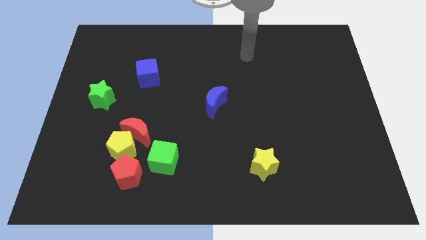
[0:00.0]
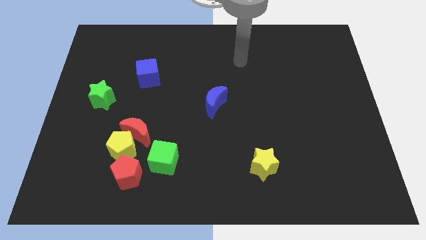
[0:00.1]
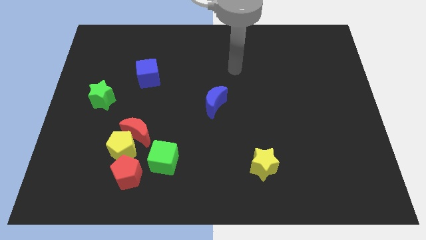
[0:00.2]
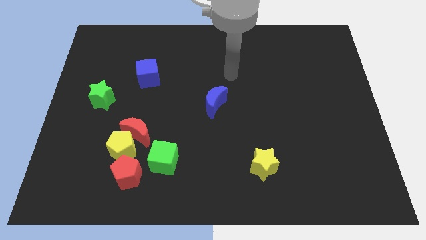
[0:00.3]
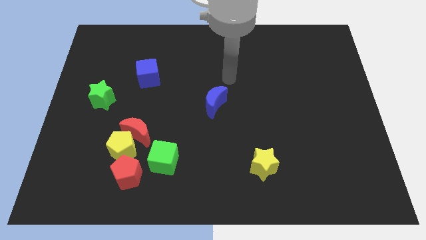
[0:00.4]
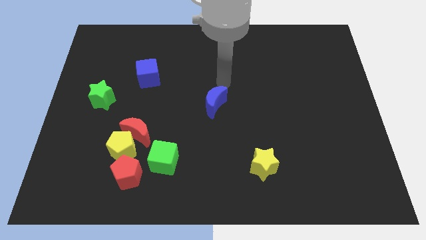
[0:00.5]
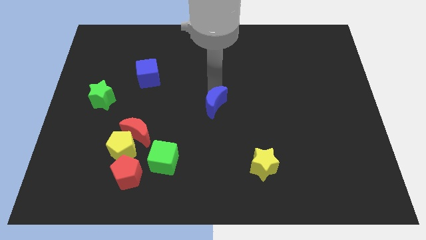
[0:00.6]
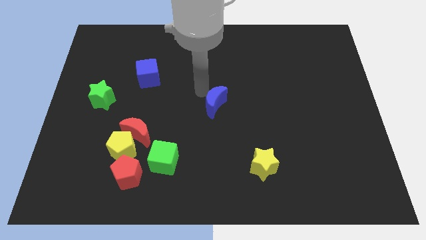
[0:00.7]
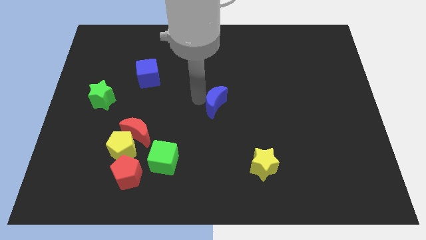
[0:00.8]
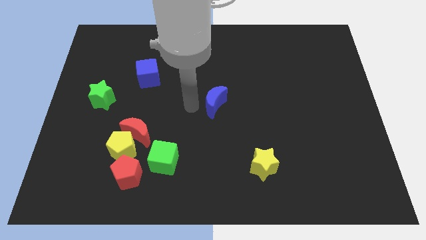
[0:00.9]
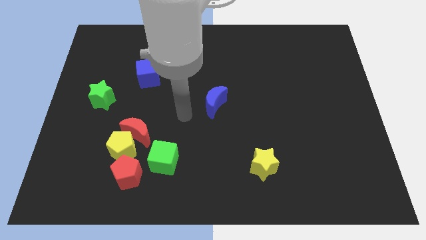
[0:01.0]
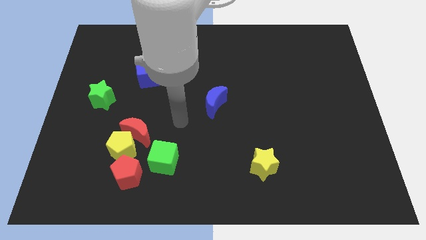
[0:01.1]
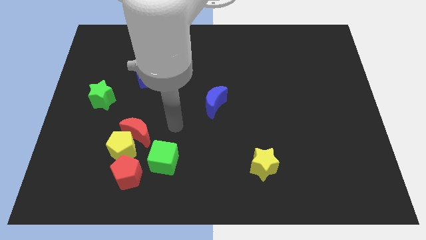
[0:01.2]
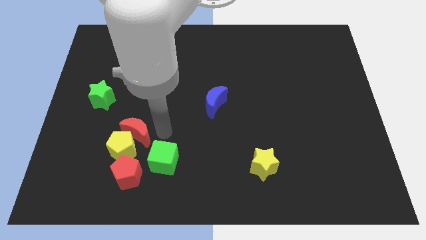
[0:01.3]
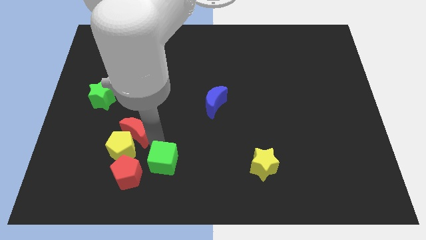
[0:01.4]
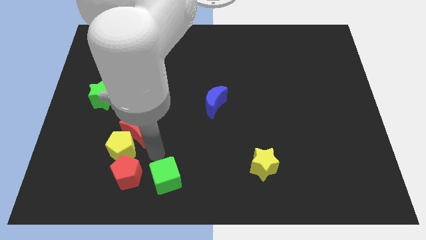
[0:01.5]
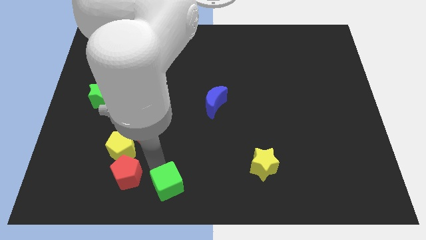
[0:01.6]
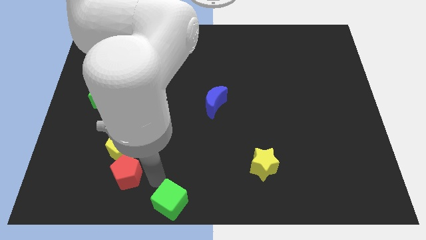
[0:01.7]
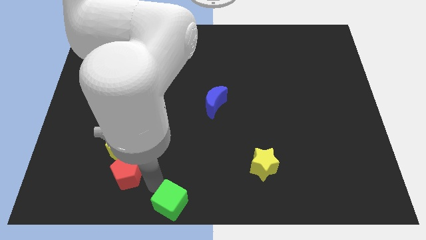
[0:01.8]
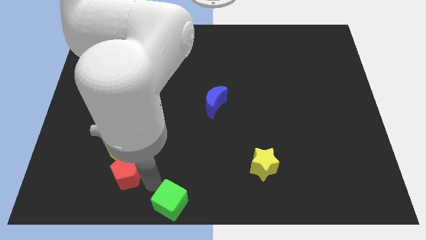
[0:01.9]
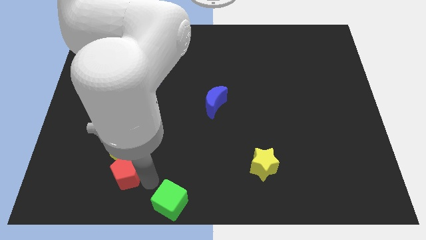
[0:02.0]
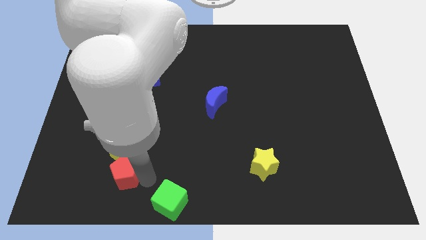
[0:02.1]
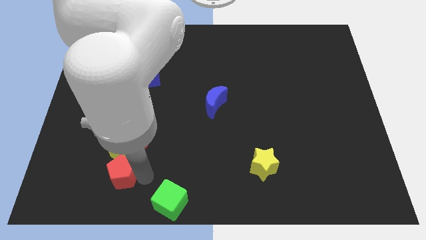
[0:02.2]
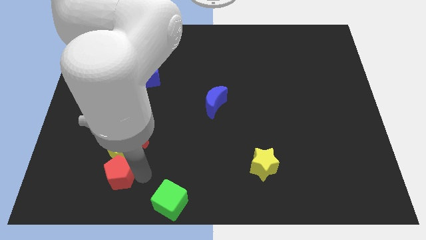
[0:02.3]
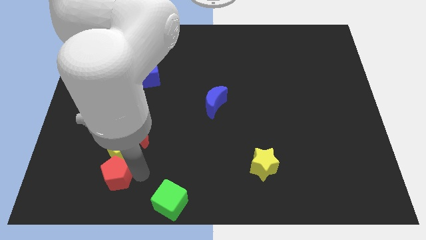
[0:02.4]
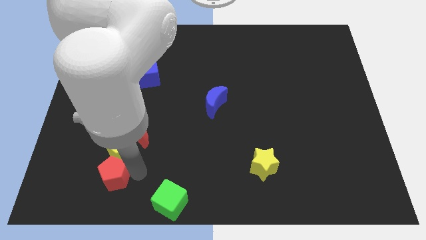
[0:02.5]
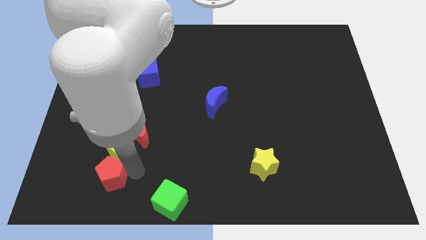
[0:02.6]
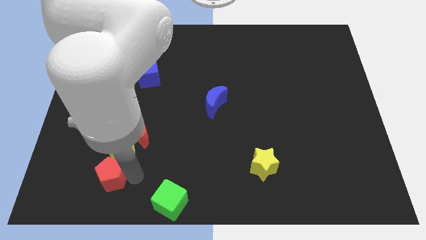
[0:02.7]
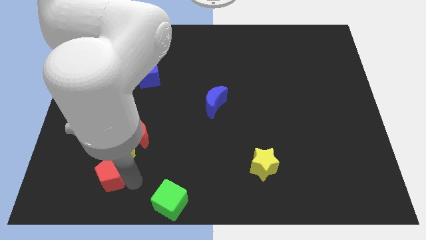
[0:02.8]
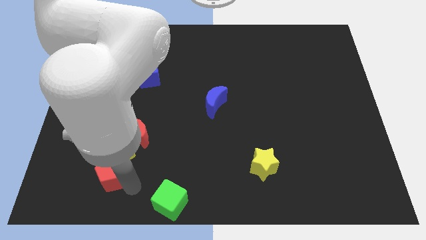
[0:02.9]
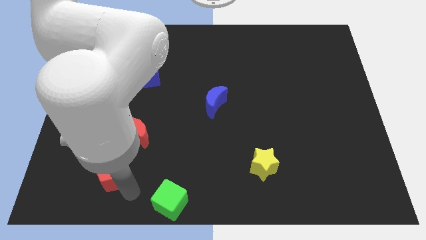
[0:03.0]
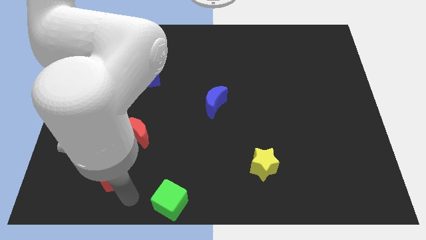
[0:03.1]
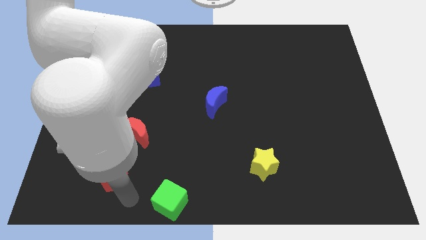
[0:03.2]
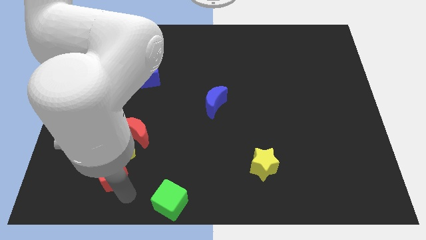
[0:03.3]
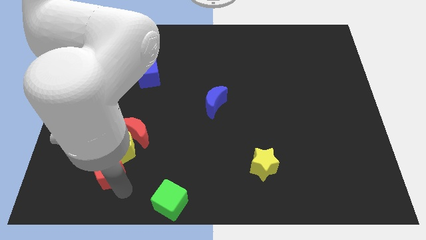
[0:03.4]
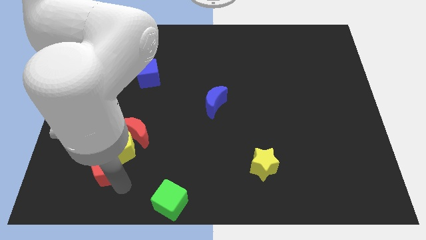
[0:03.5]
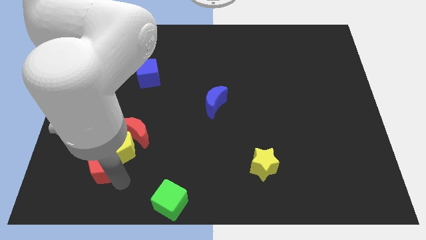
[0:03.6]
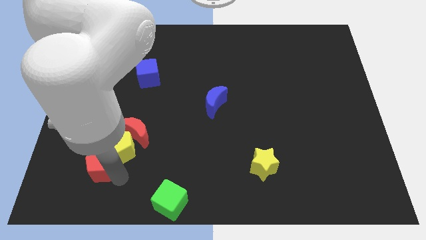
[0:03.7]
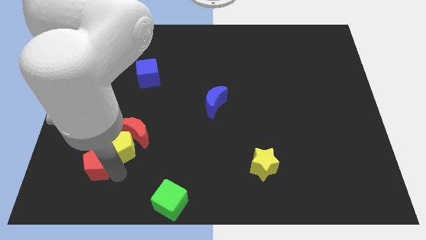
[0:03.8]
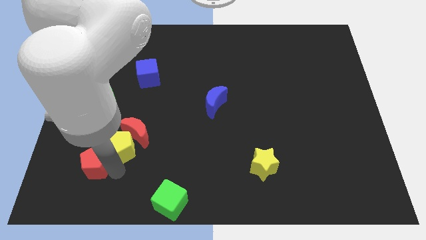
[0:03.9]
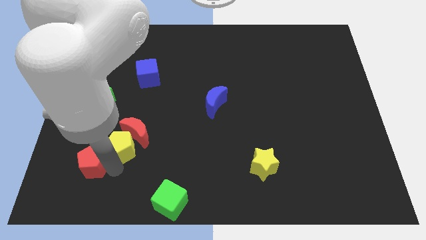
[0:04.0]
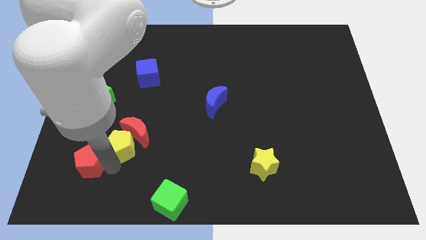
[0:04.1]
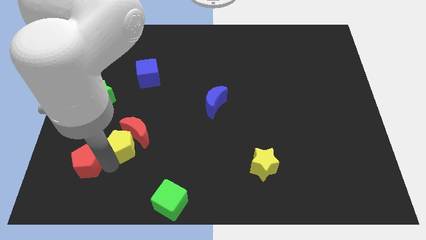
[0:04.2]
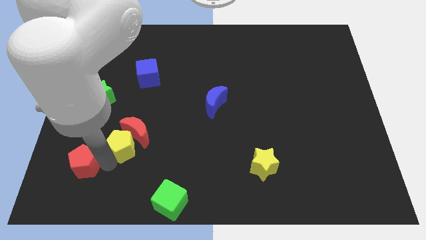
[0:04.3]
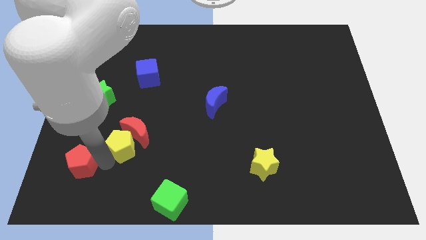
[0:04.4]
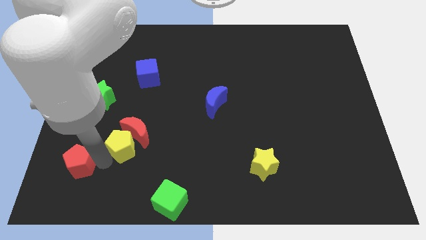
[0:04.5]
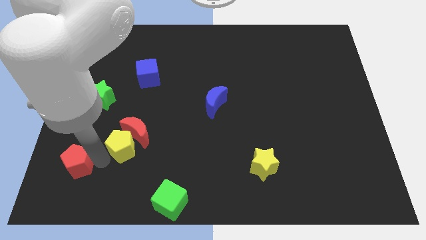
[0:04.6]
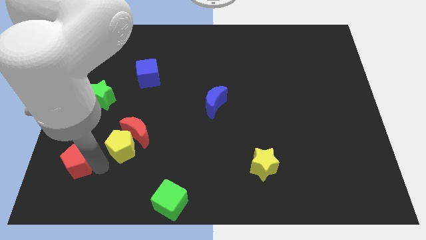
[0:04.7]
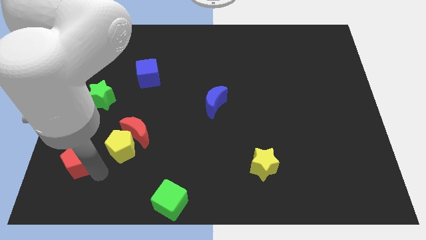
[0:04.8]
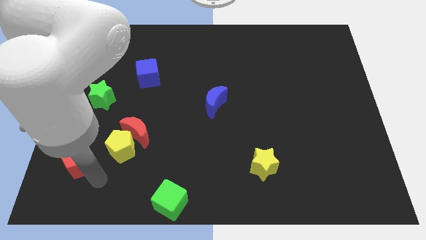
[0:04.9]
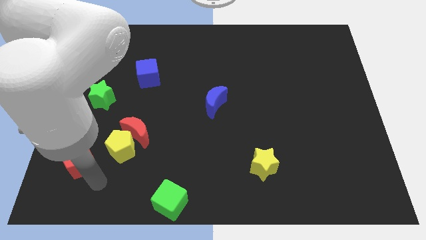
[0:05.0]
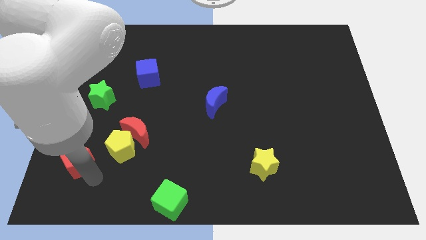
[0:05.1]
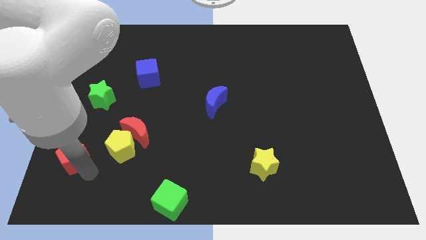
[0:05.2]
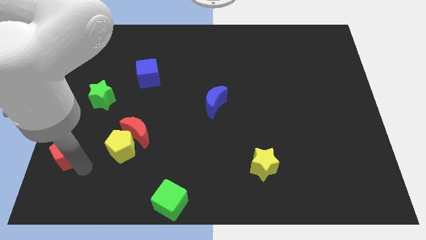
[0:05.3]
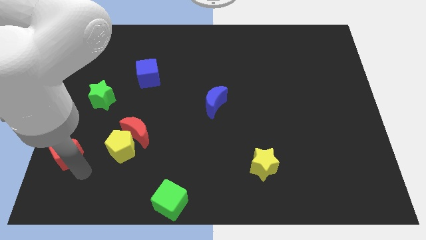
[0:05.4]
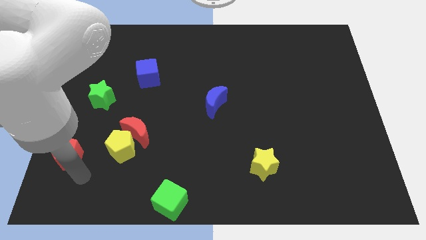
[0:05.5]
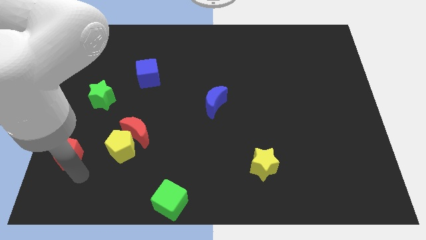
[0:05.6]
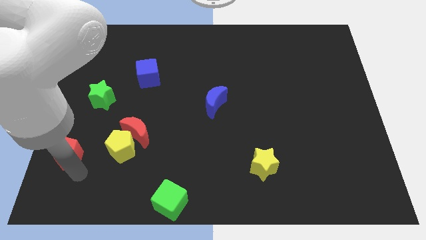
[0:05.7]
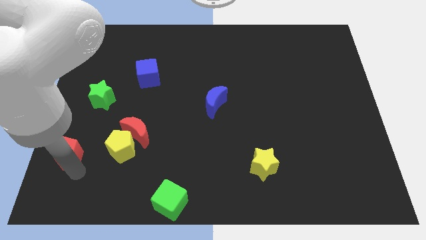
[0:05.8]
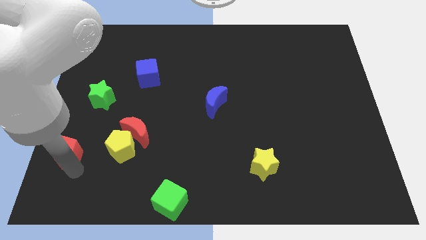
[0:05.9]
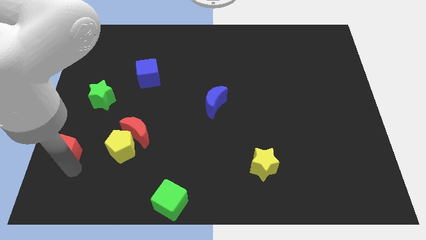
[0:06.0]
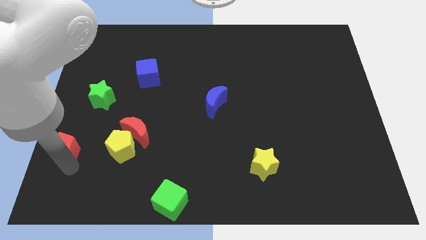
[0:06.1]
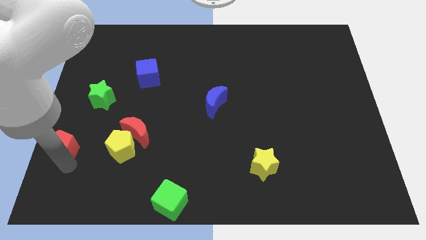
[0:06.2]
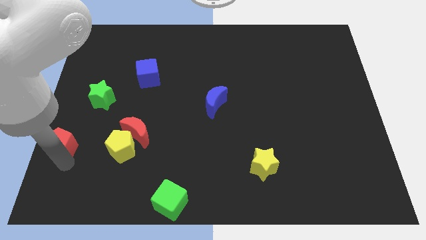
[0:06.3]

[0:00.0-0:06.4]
slide the red pentagon to the left side of the board

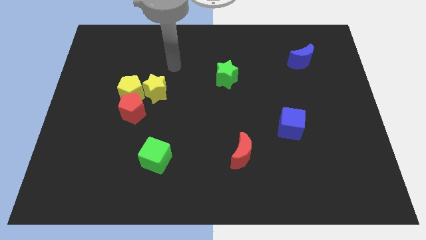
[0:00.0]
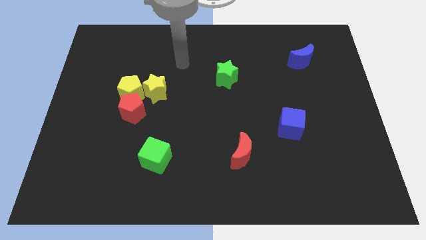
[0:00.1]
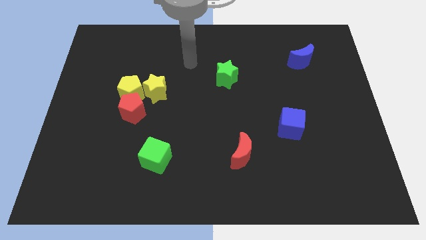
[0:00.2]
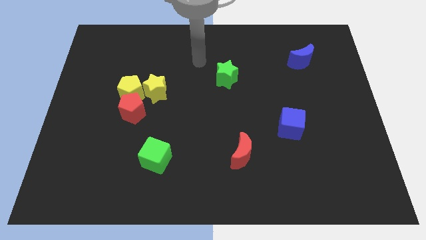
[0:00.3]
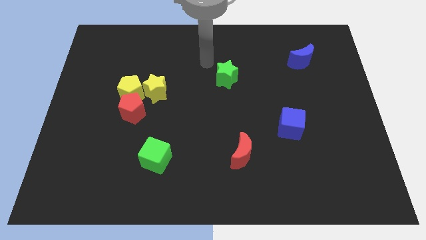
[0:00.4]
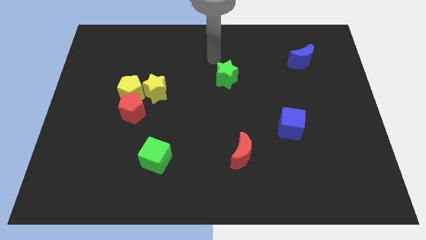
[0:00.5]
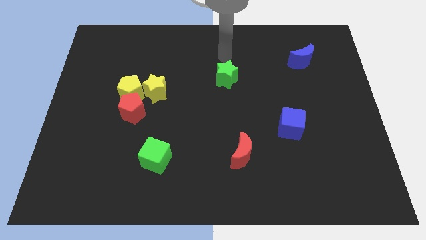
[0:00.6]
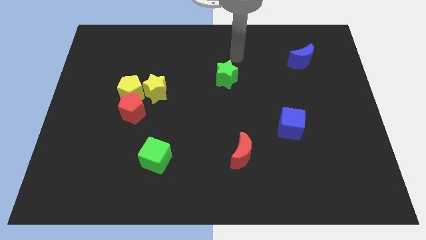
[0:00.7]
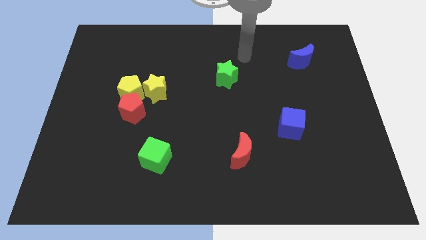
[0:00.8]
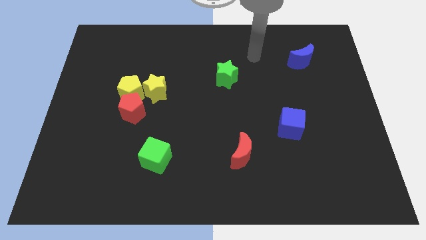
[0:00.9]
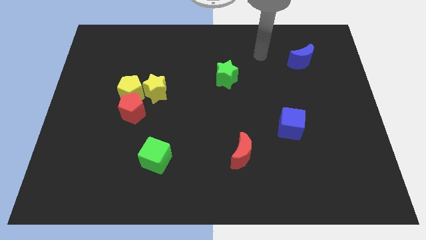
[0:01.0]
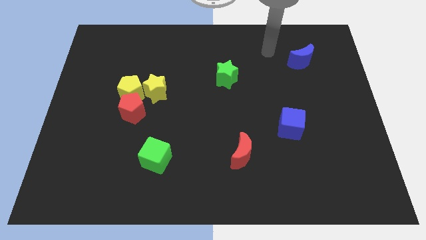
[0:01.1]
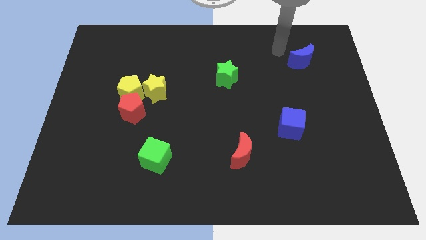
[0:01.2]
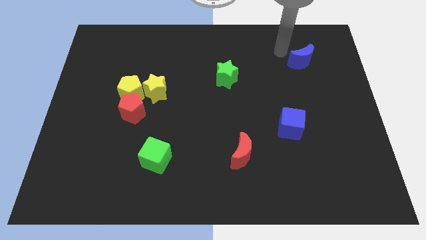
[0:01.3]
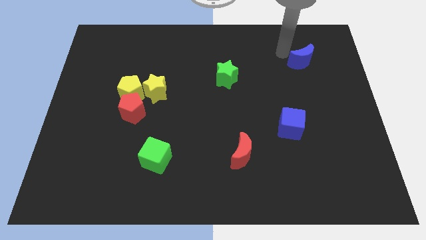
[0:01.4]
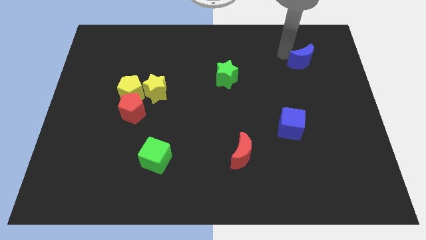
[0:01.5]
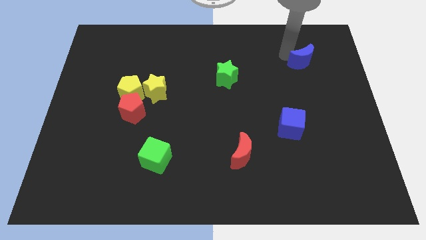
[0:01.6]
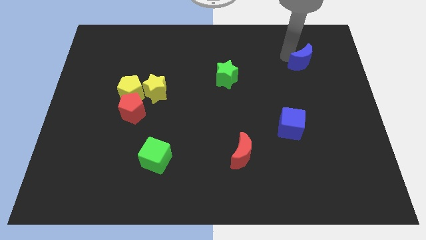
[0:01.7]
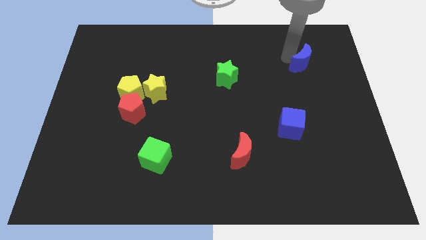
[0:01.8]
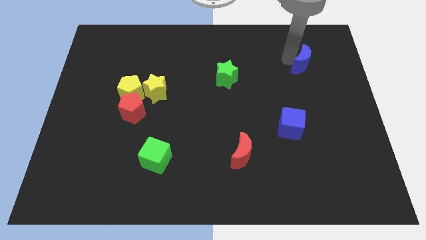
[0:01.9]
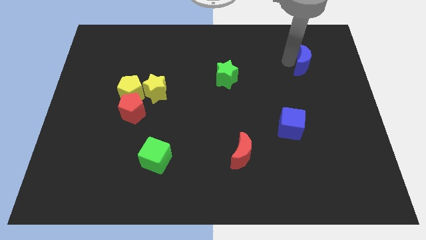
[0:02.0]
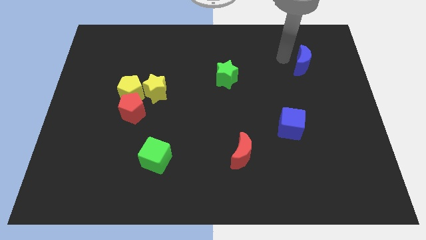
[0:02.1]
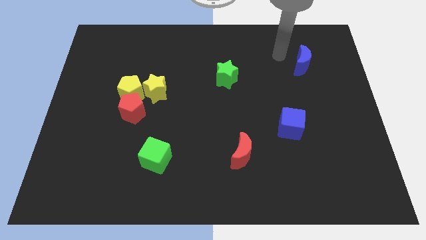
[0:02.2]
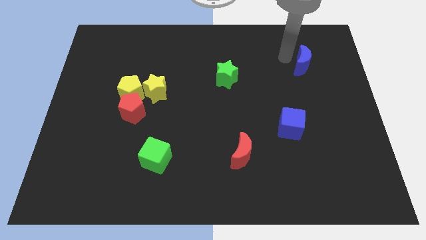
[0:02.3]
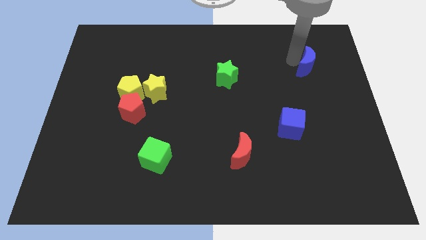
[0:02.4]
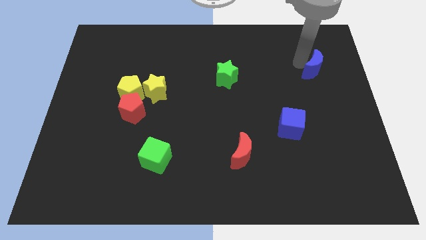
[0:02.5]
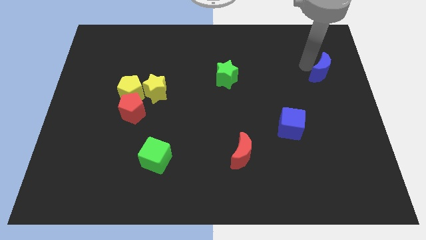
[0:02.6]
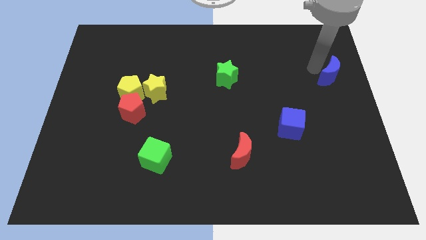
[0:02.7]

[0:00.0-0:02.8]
push the blue moon to the center right
